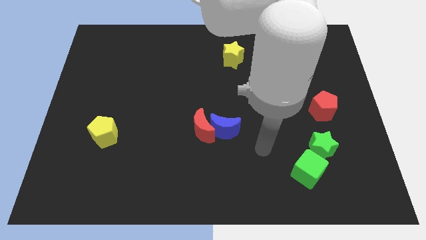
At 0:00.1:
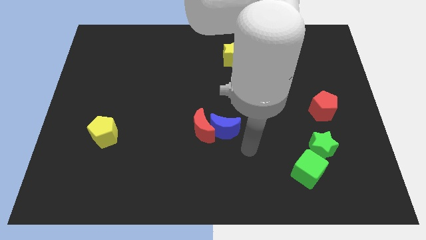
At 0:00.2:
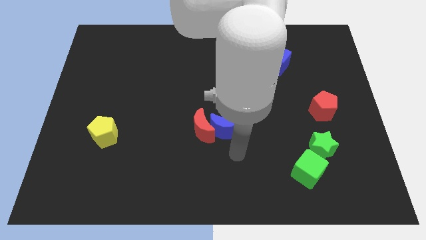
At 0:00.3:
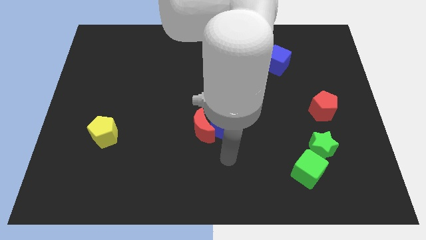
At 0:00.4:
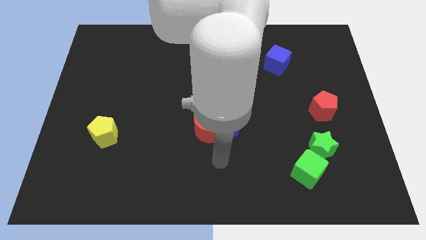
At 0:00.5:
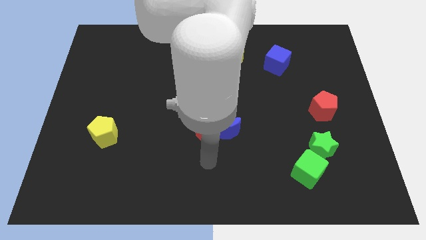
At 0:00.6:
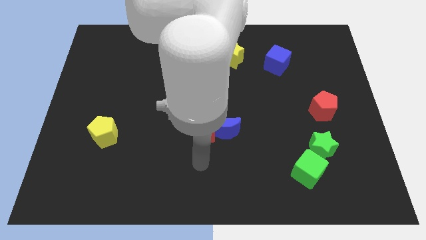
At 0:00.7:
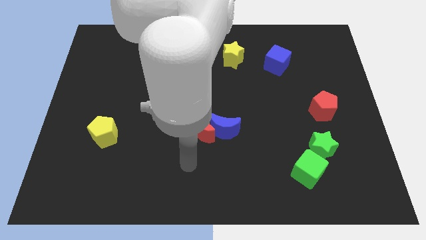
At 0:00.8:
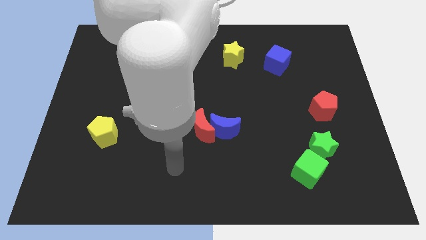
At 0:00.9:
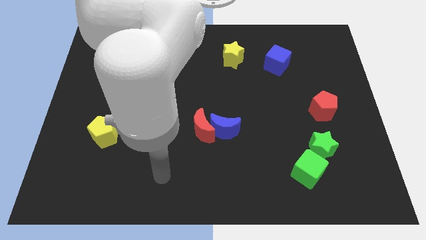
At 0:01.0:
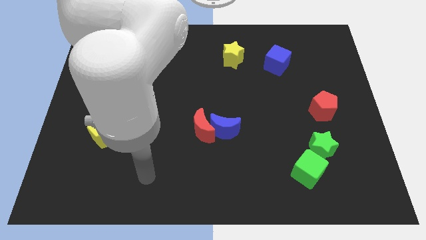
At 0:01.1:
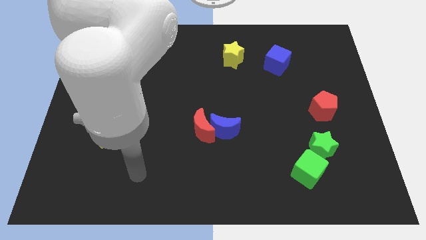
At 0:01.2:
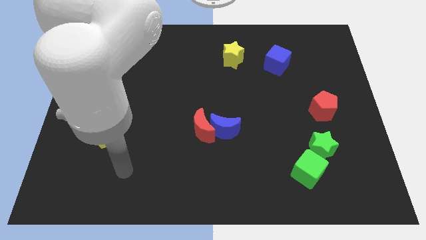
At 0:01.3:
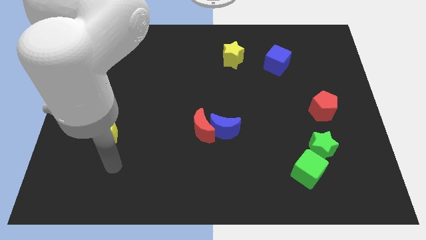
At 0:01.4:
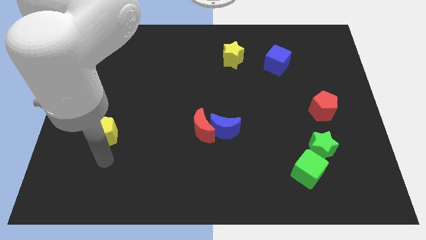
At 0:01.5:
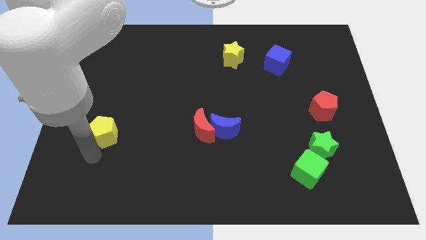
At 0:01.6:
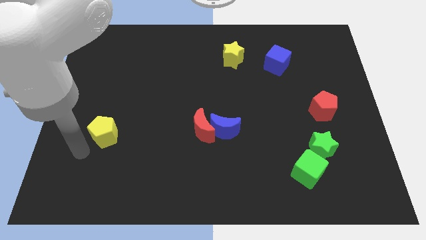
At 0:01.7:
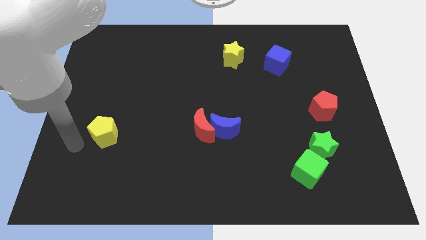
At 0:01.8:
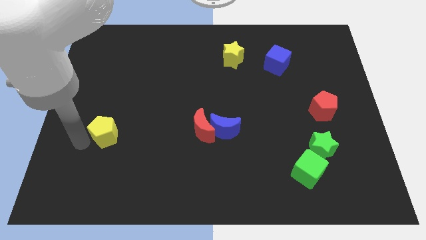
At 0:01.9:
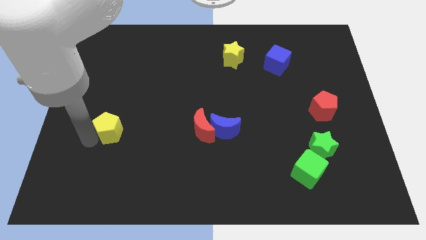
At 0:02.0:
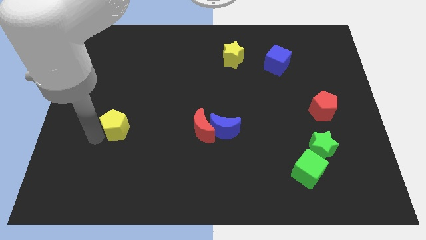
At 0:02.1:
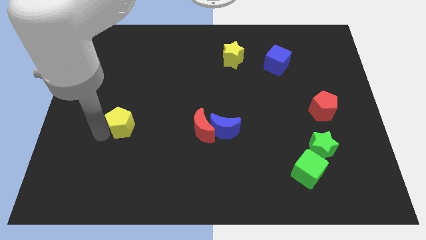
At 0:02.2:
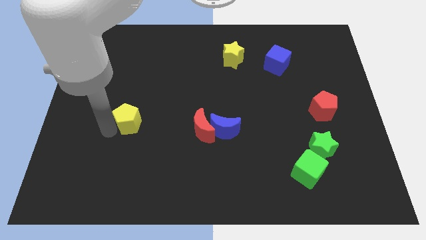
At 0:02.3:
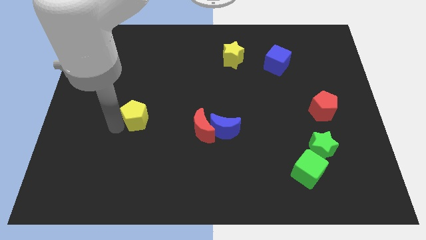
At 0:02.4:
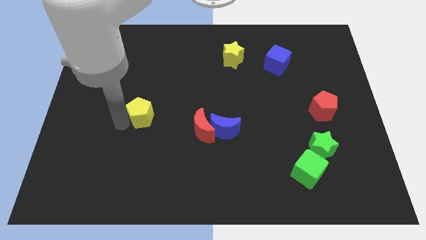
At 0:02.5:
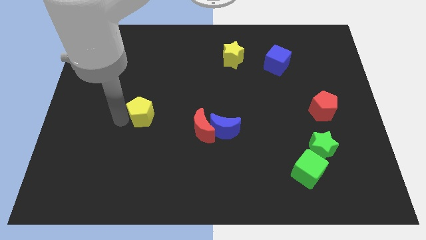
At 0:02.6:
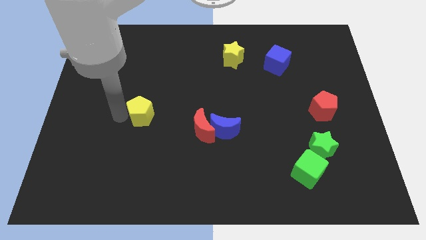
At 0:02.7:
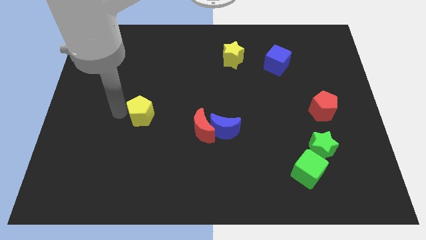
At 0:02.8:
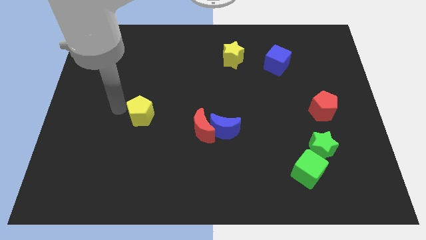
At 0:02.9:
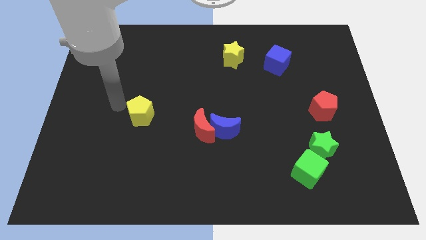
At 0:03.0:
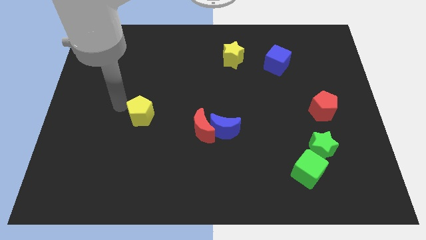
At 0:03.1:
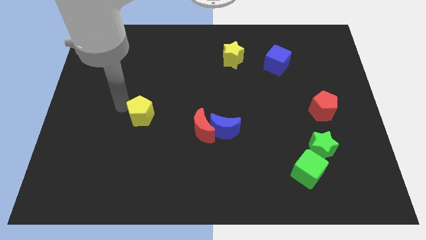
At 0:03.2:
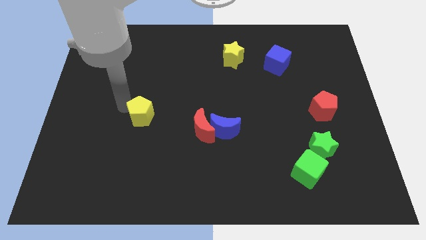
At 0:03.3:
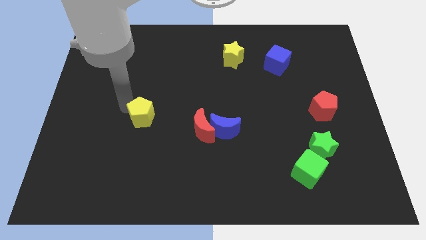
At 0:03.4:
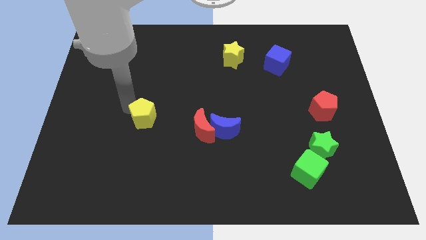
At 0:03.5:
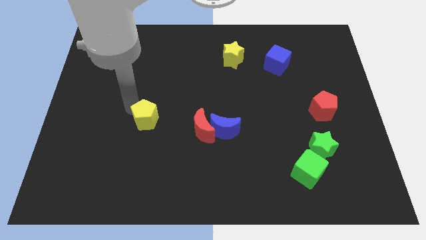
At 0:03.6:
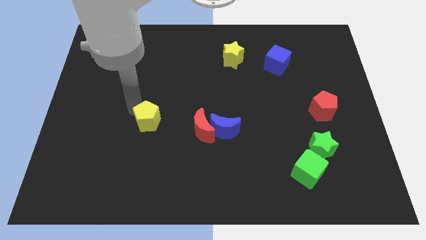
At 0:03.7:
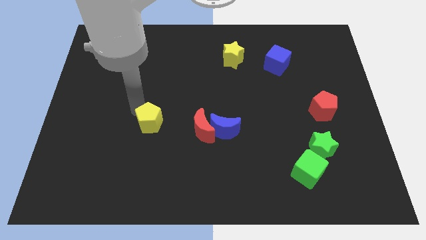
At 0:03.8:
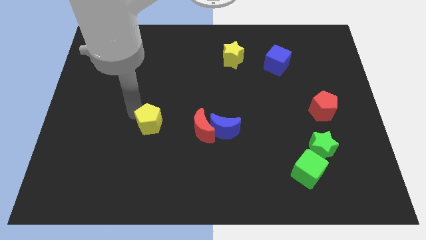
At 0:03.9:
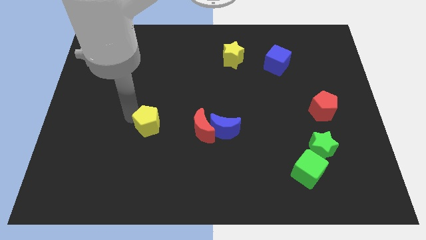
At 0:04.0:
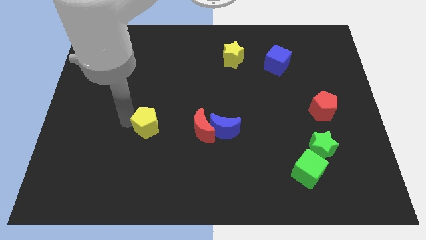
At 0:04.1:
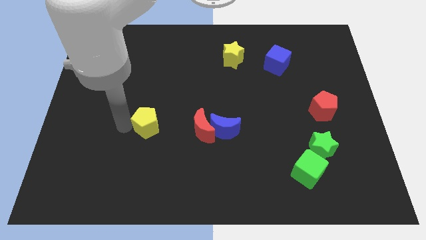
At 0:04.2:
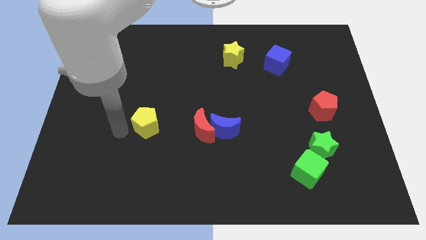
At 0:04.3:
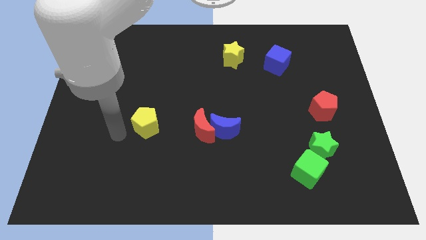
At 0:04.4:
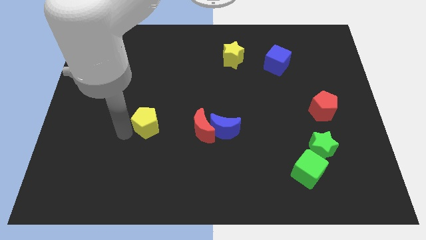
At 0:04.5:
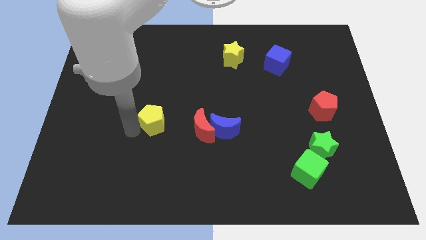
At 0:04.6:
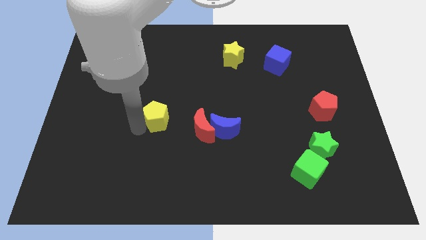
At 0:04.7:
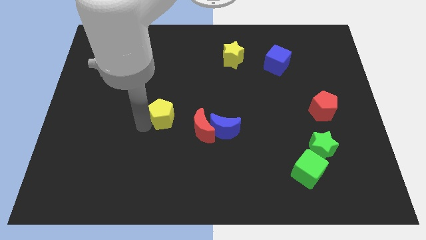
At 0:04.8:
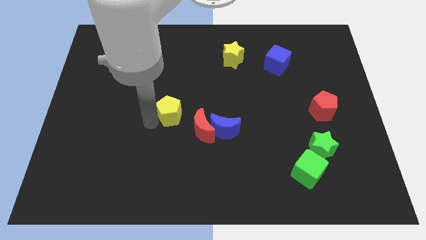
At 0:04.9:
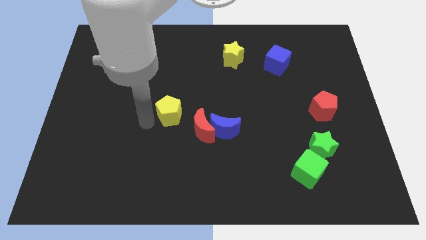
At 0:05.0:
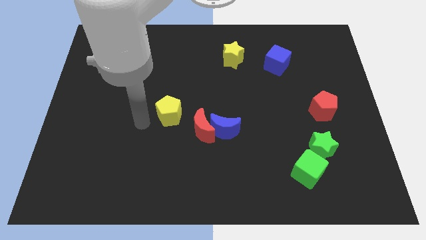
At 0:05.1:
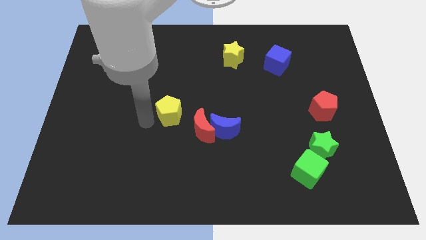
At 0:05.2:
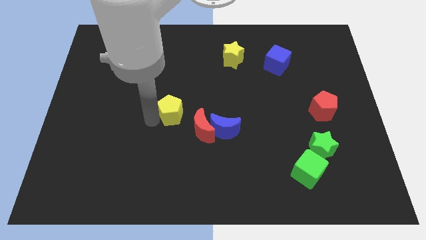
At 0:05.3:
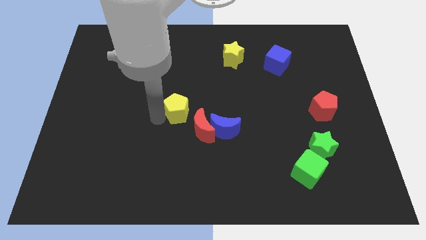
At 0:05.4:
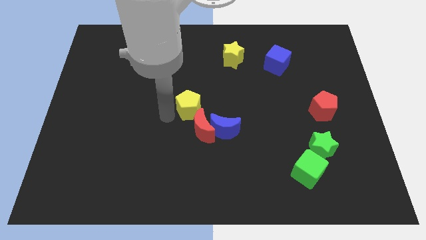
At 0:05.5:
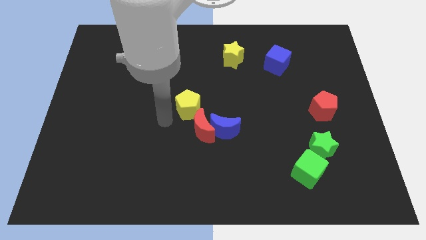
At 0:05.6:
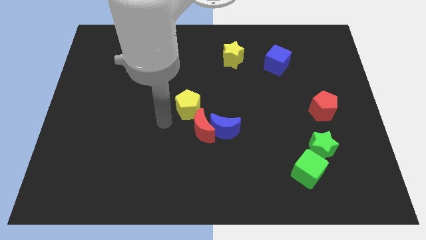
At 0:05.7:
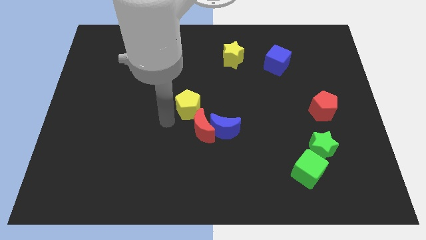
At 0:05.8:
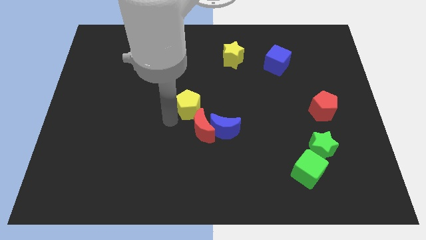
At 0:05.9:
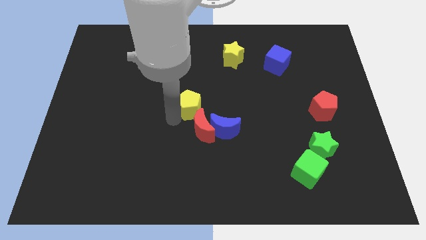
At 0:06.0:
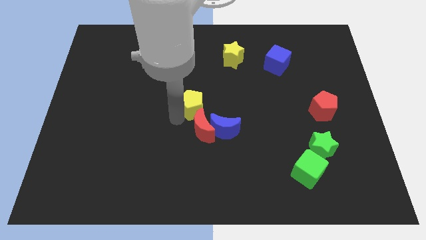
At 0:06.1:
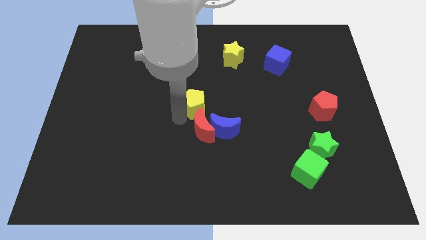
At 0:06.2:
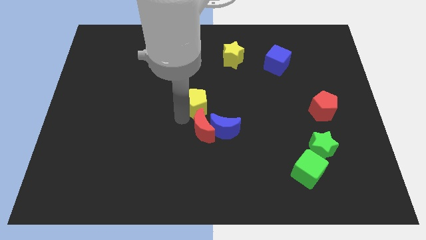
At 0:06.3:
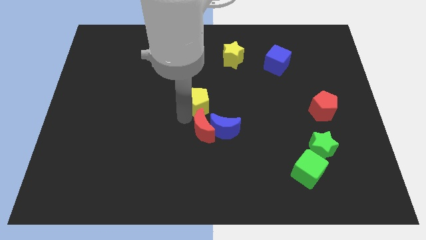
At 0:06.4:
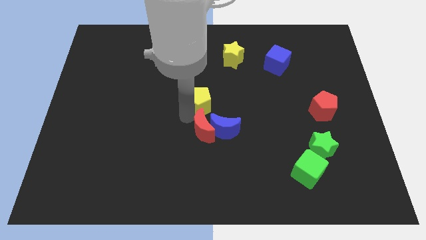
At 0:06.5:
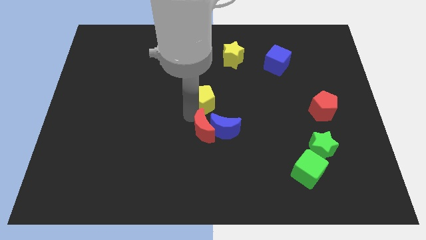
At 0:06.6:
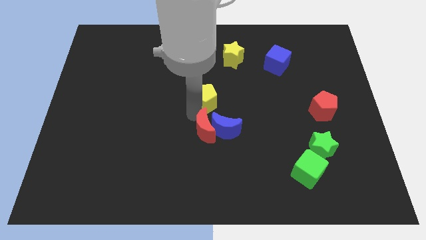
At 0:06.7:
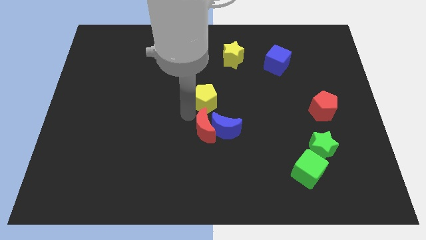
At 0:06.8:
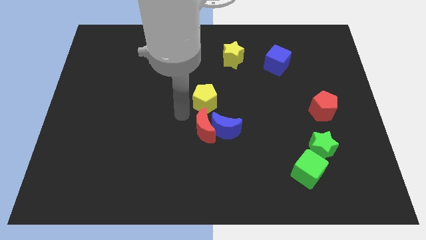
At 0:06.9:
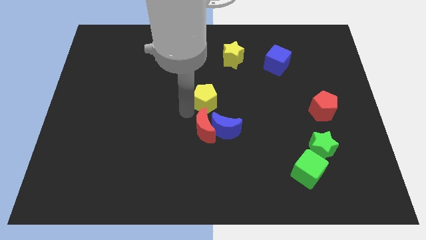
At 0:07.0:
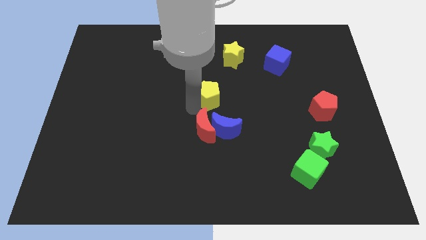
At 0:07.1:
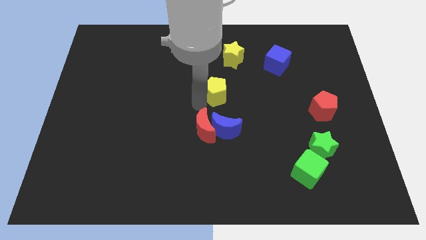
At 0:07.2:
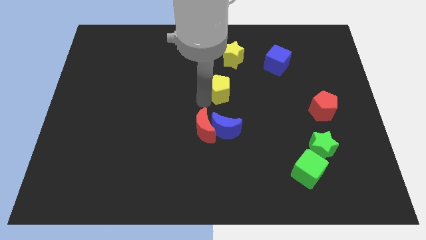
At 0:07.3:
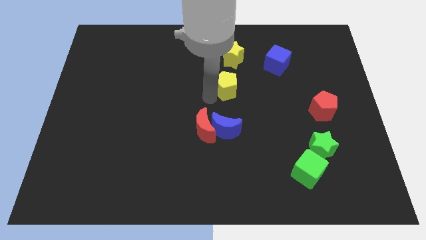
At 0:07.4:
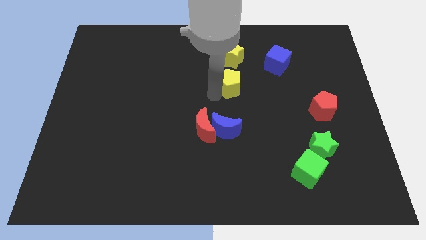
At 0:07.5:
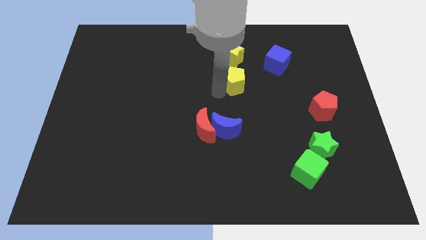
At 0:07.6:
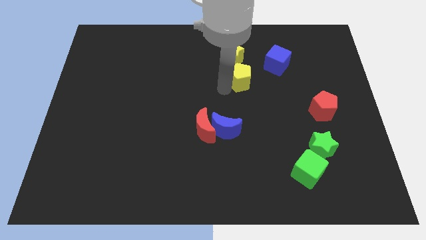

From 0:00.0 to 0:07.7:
slide the yellow pentagon to the bottom left of the blue cube
